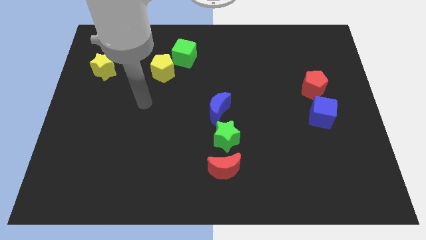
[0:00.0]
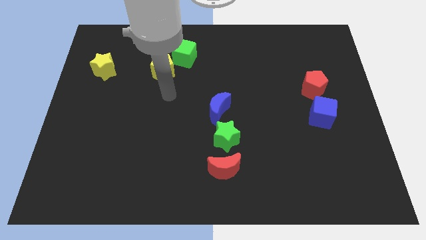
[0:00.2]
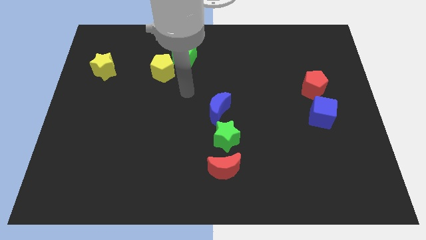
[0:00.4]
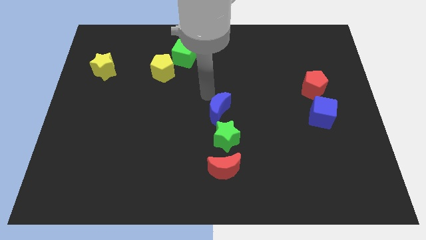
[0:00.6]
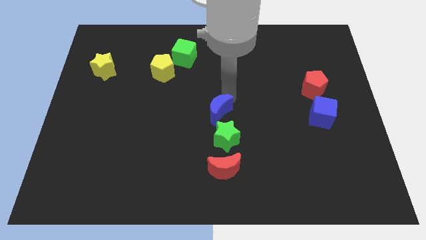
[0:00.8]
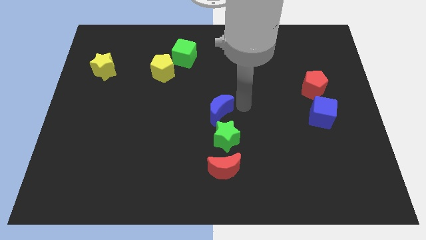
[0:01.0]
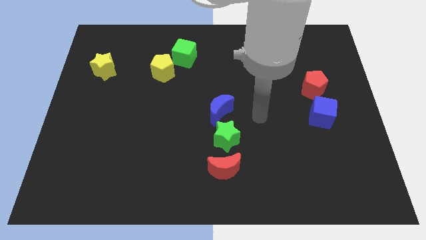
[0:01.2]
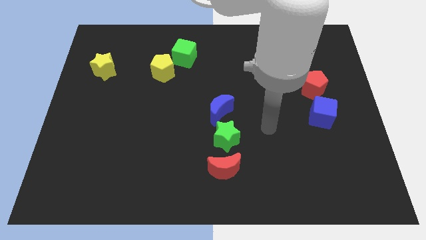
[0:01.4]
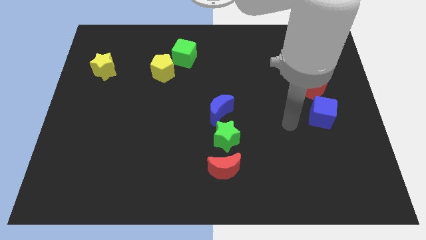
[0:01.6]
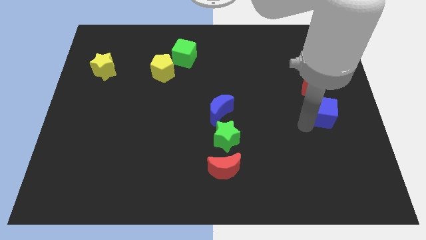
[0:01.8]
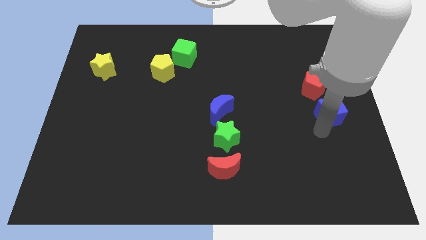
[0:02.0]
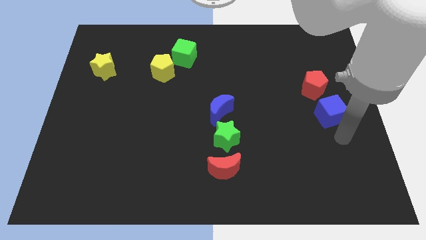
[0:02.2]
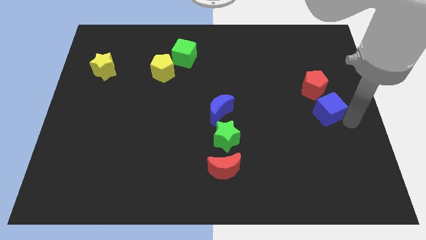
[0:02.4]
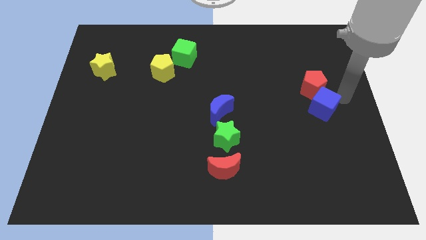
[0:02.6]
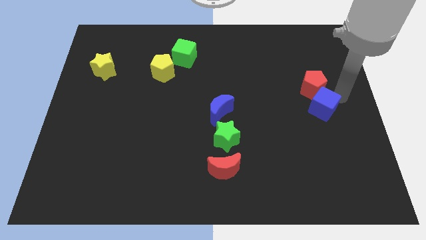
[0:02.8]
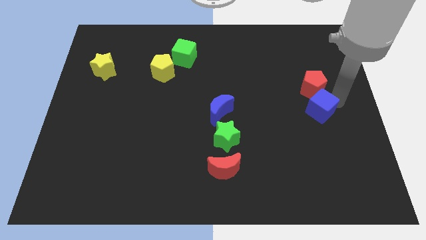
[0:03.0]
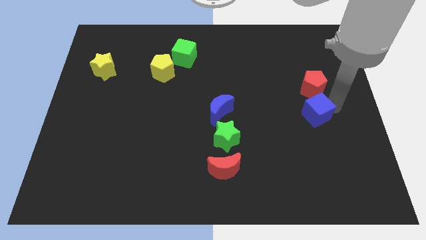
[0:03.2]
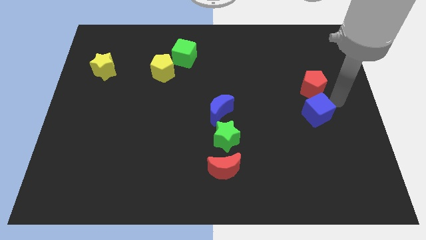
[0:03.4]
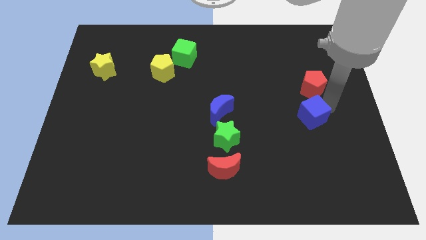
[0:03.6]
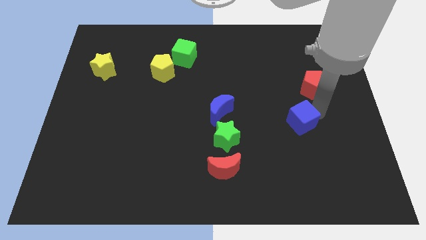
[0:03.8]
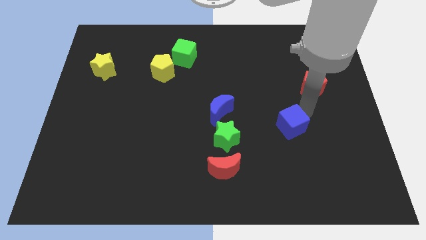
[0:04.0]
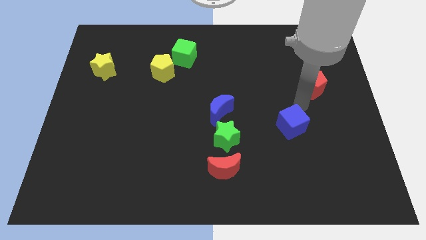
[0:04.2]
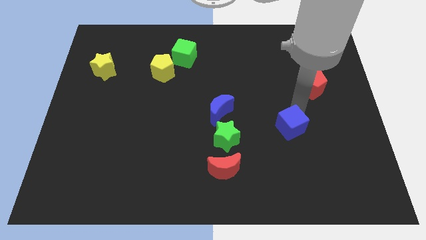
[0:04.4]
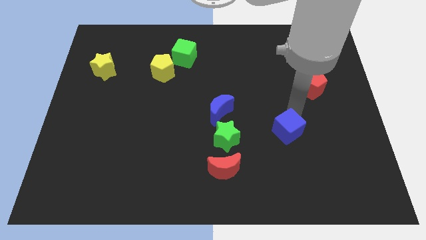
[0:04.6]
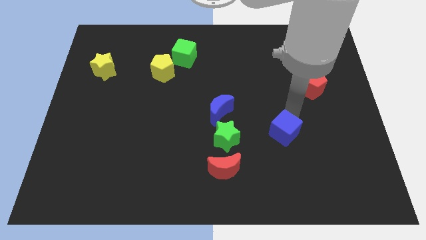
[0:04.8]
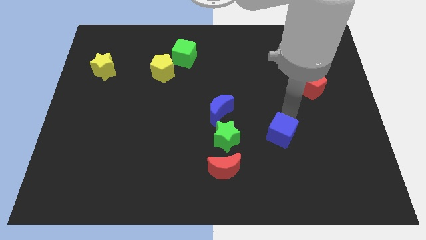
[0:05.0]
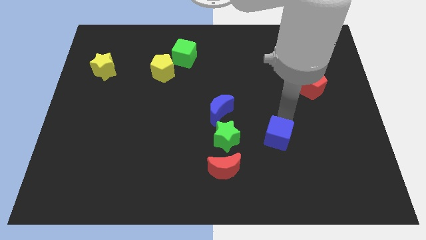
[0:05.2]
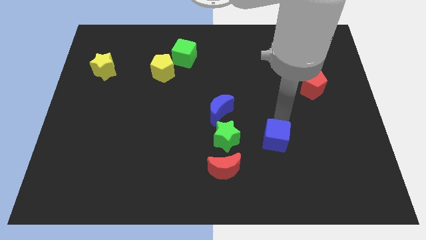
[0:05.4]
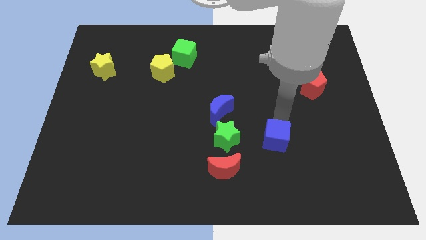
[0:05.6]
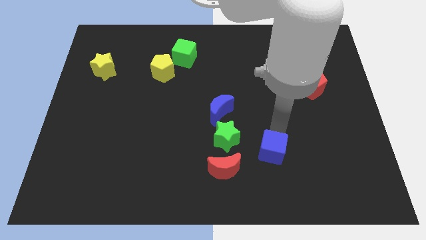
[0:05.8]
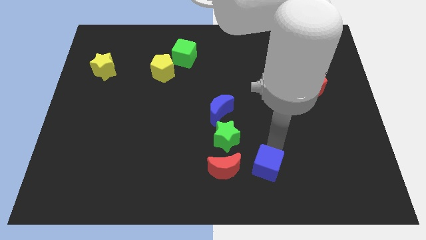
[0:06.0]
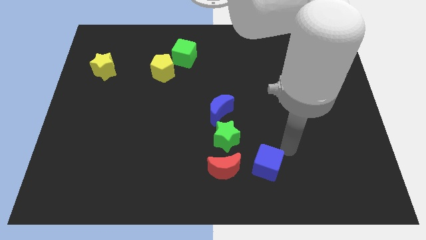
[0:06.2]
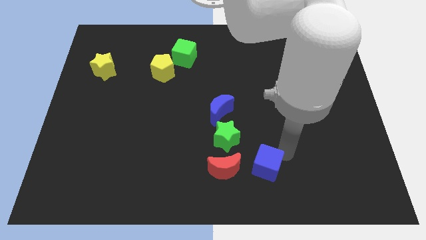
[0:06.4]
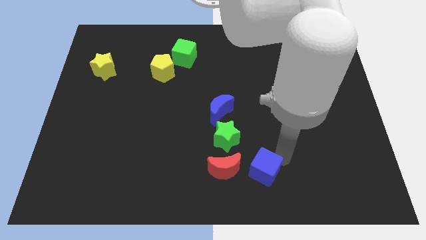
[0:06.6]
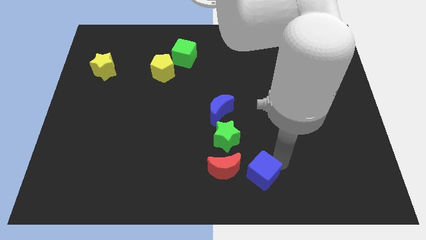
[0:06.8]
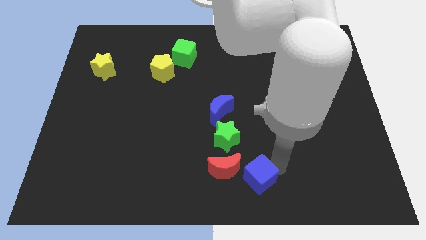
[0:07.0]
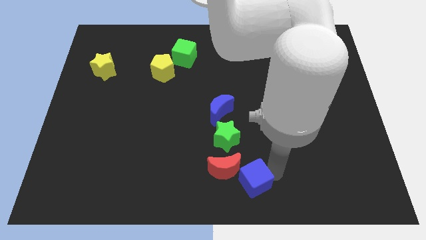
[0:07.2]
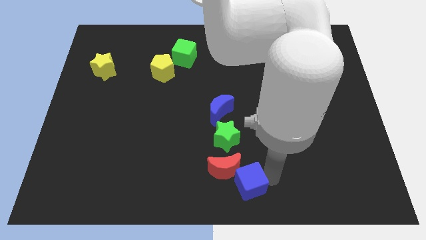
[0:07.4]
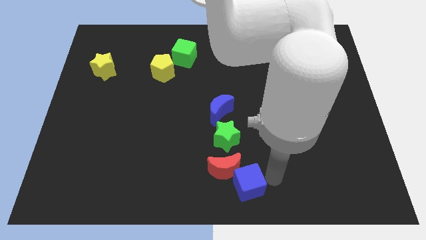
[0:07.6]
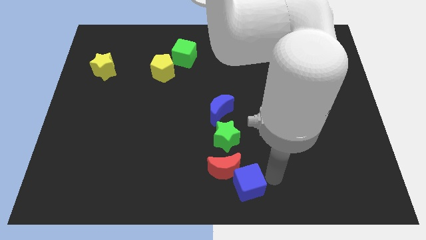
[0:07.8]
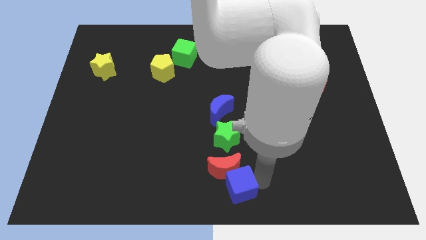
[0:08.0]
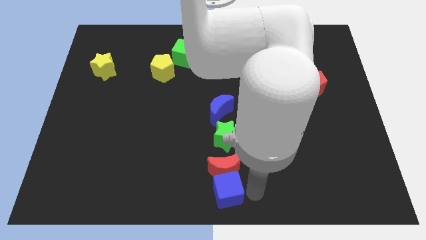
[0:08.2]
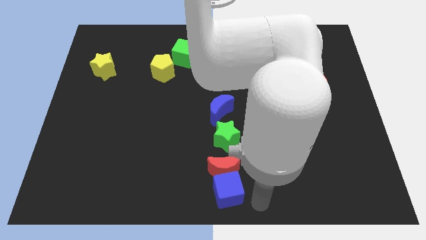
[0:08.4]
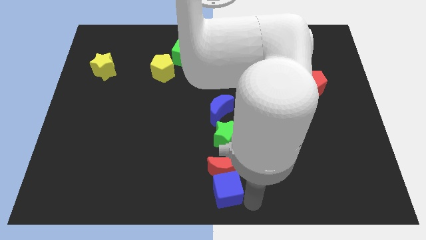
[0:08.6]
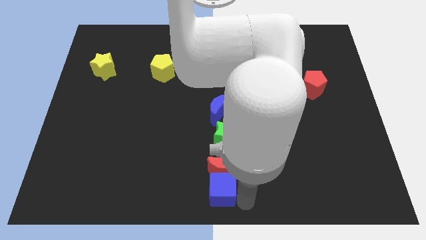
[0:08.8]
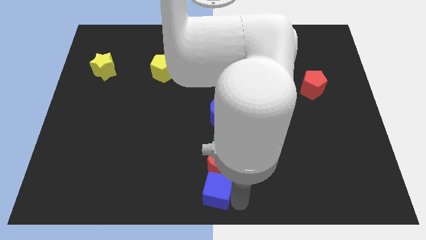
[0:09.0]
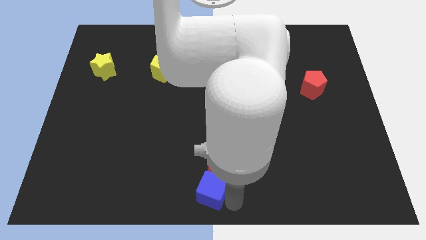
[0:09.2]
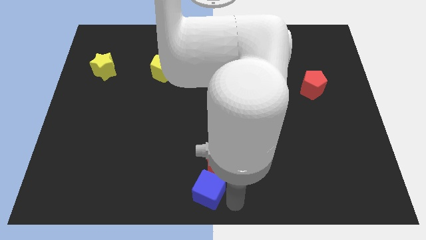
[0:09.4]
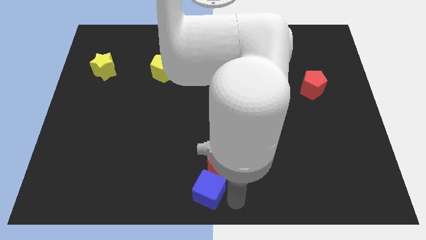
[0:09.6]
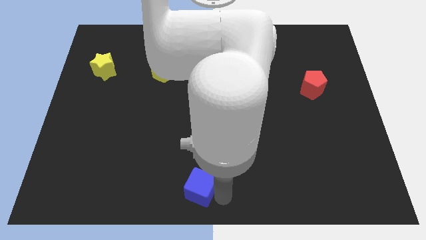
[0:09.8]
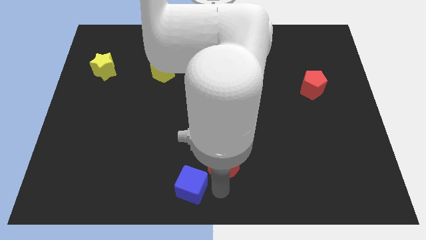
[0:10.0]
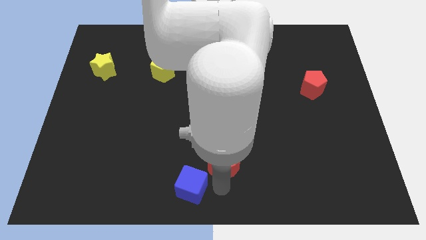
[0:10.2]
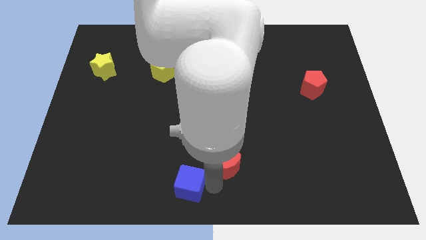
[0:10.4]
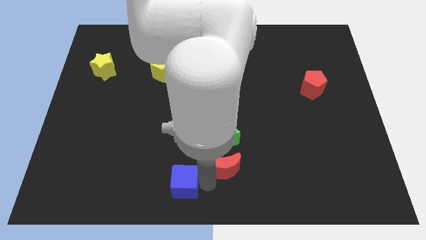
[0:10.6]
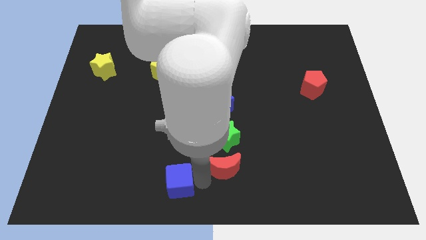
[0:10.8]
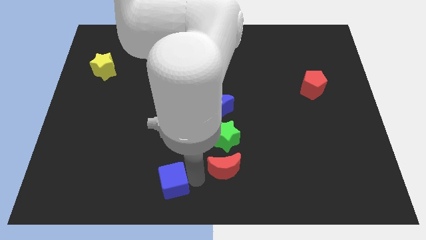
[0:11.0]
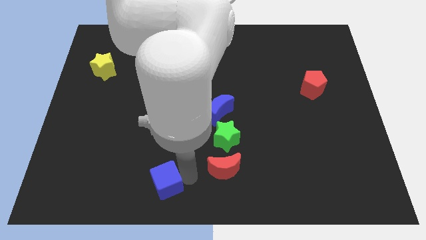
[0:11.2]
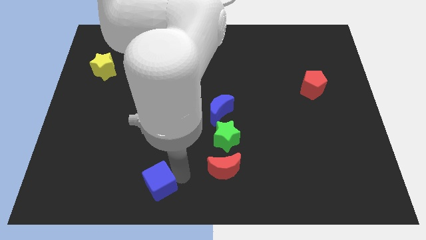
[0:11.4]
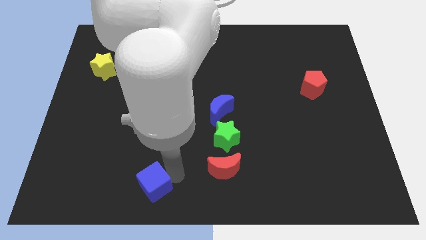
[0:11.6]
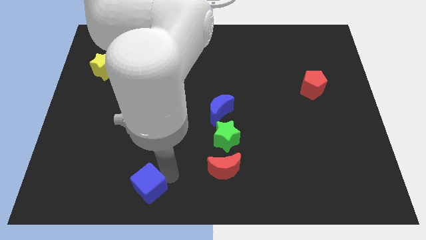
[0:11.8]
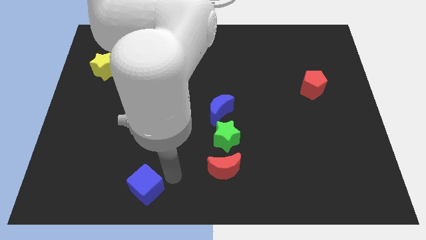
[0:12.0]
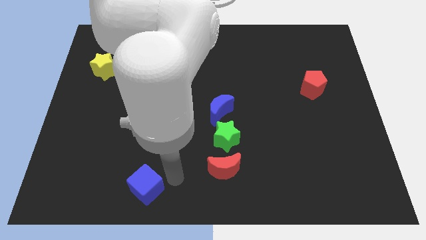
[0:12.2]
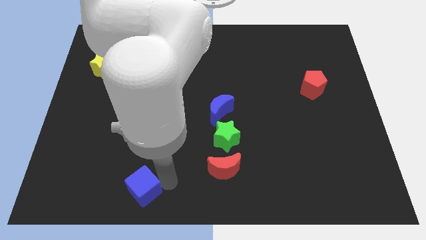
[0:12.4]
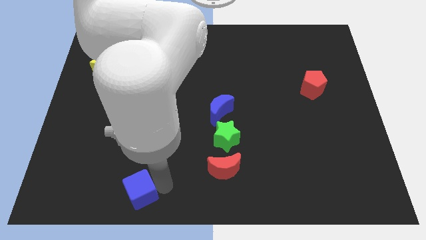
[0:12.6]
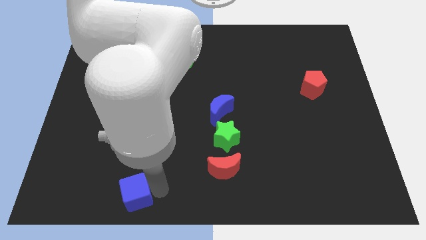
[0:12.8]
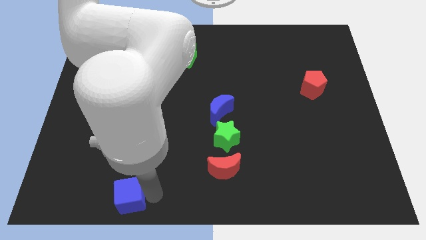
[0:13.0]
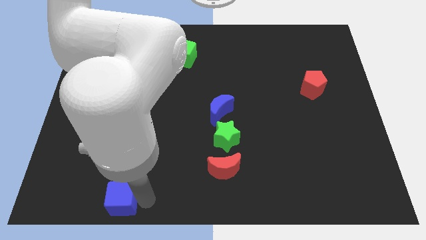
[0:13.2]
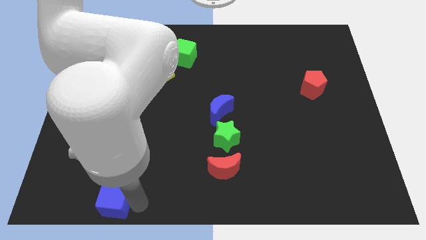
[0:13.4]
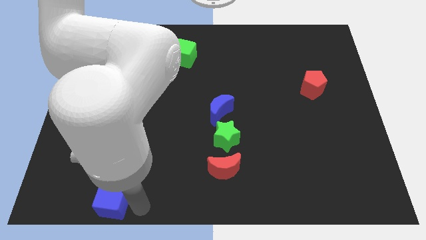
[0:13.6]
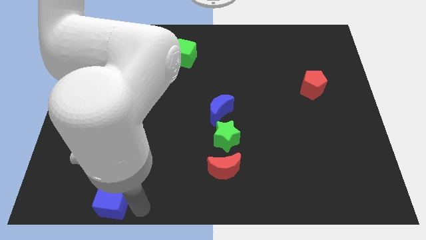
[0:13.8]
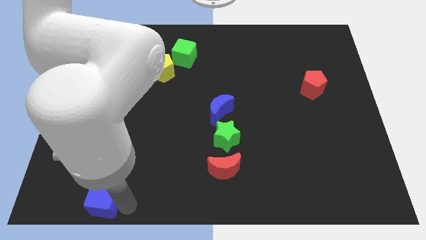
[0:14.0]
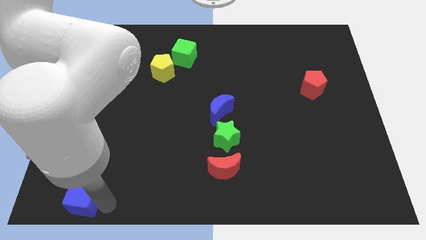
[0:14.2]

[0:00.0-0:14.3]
push the blue cube to the bottom left of the board
